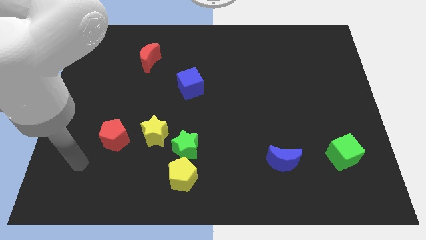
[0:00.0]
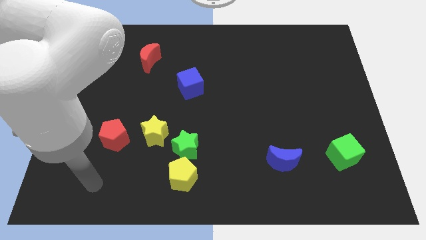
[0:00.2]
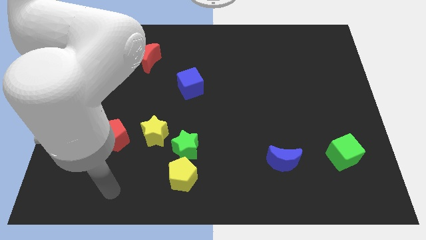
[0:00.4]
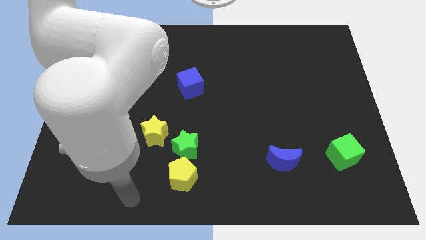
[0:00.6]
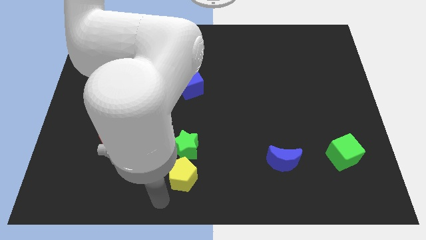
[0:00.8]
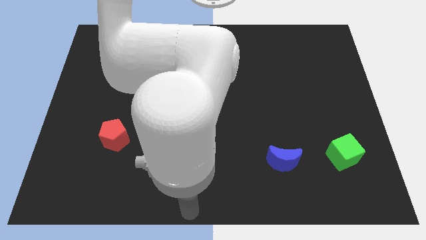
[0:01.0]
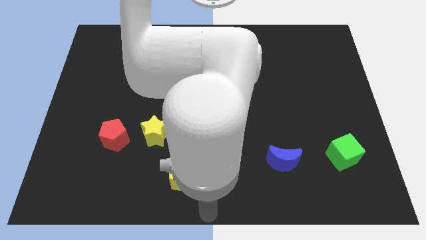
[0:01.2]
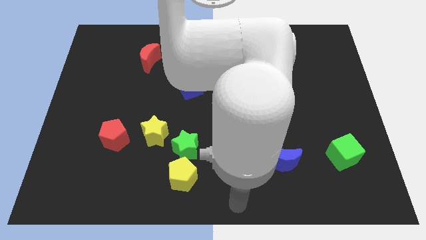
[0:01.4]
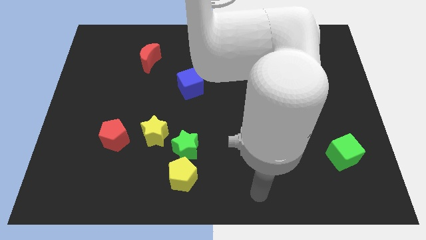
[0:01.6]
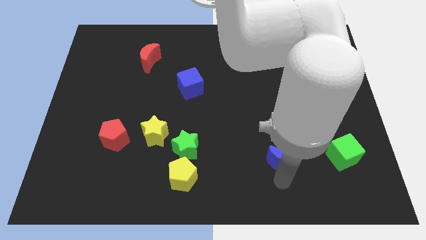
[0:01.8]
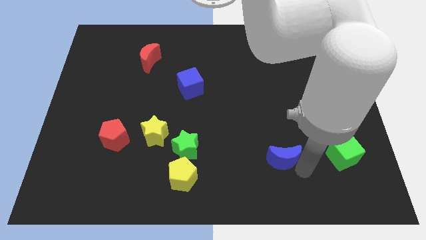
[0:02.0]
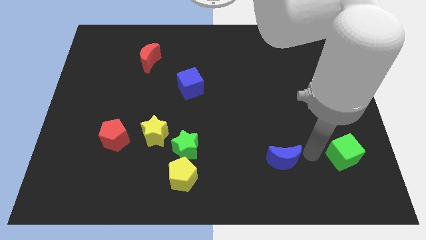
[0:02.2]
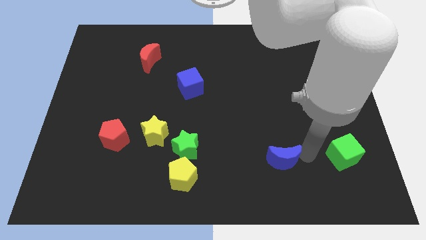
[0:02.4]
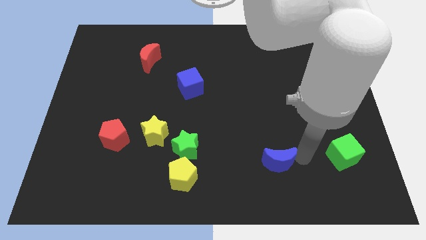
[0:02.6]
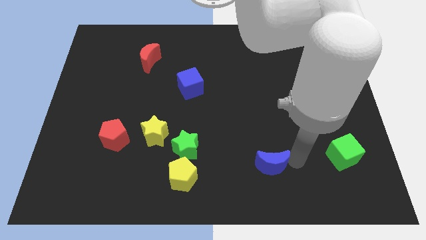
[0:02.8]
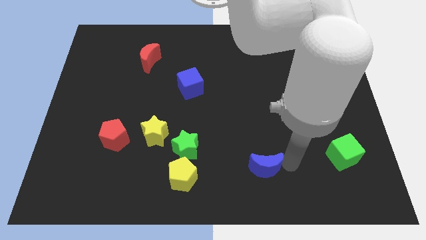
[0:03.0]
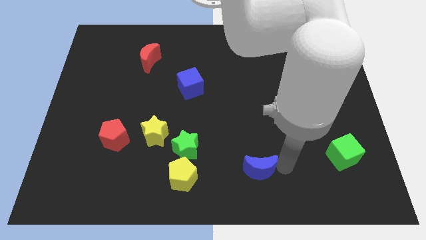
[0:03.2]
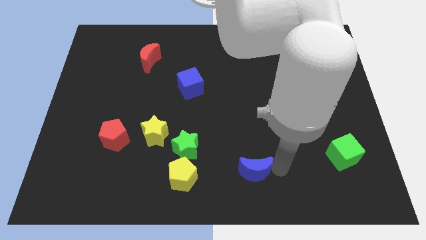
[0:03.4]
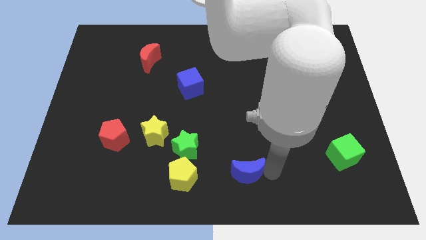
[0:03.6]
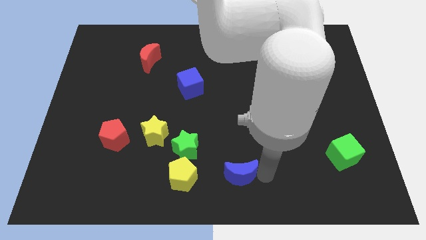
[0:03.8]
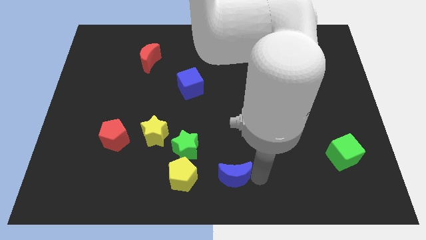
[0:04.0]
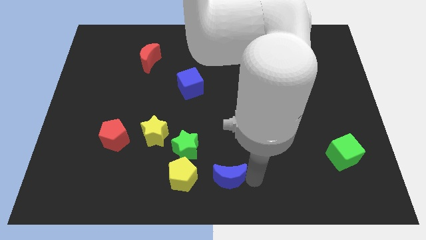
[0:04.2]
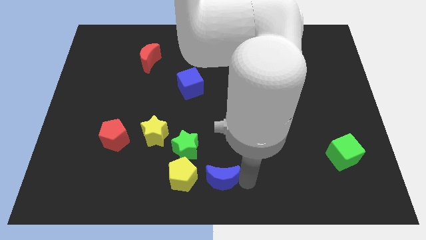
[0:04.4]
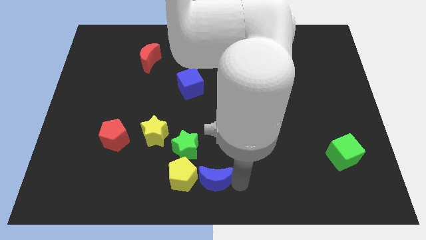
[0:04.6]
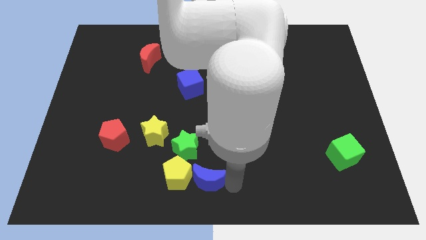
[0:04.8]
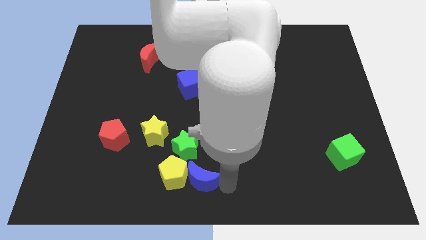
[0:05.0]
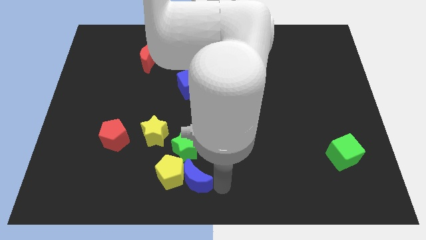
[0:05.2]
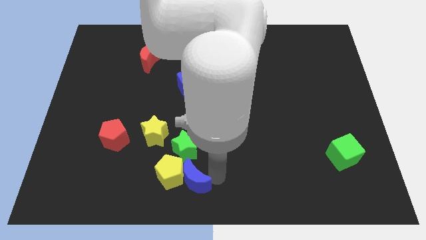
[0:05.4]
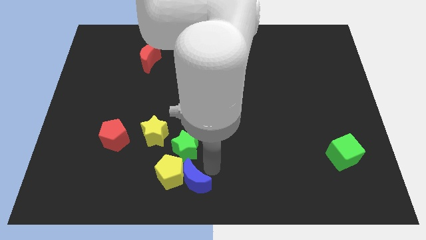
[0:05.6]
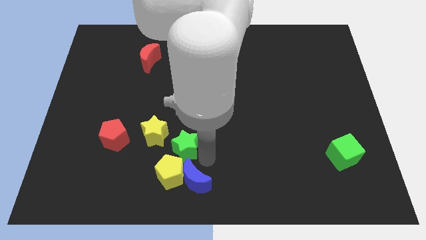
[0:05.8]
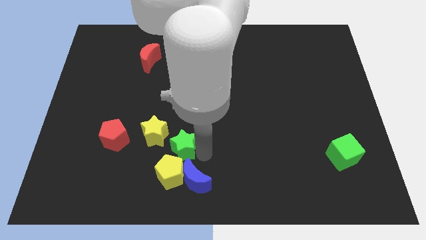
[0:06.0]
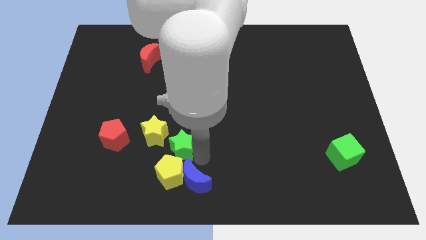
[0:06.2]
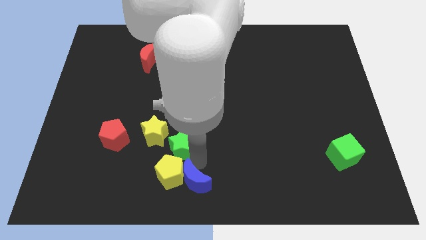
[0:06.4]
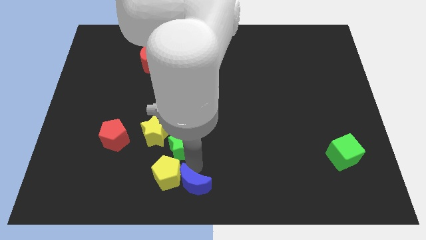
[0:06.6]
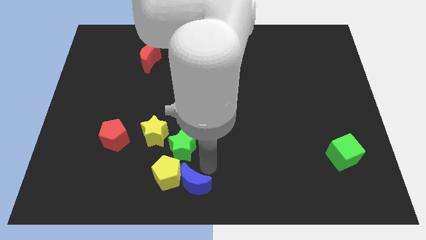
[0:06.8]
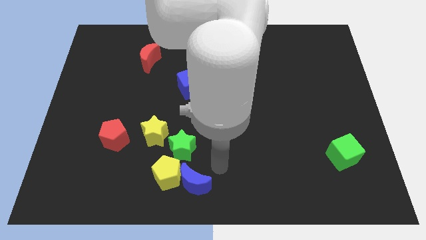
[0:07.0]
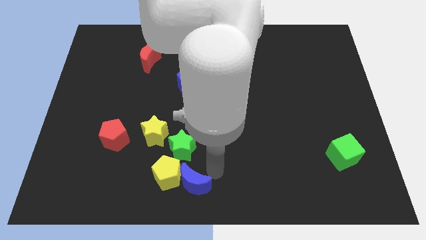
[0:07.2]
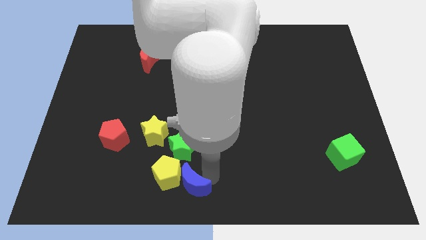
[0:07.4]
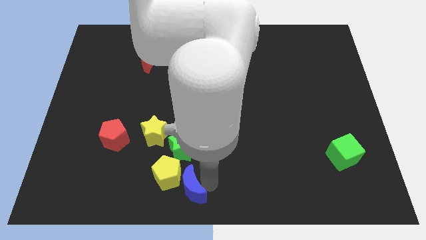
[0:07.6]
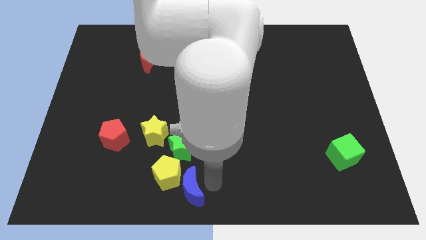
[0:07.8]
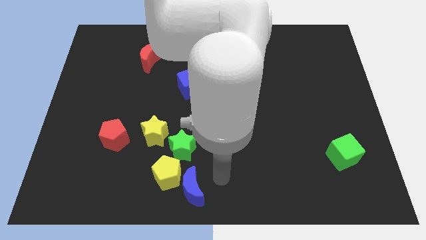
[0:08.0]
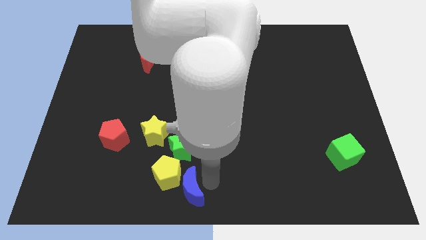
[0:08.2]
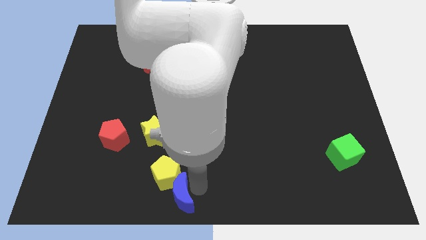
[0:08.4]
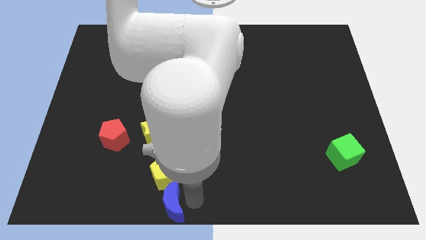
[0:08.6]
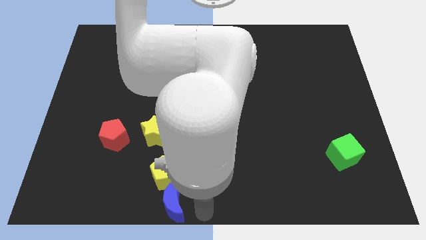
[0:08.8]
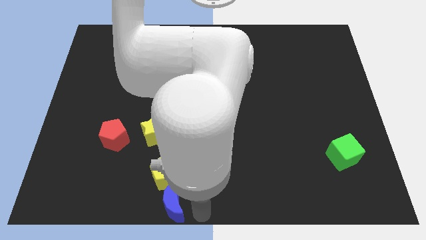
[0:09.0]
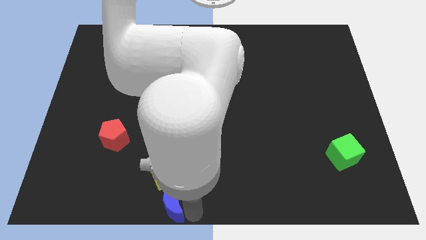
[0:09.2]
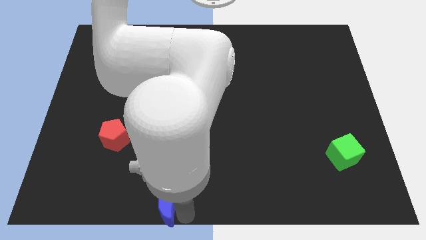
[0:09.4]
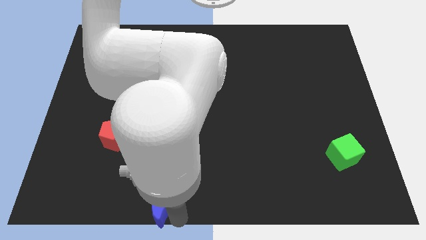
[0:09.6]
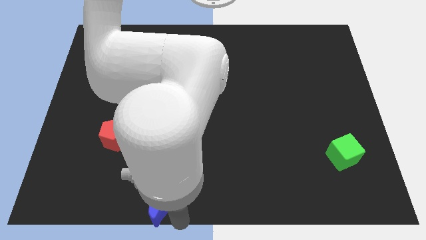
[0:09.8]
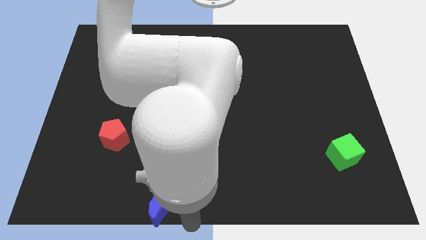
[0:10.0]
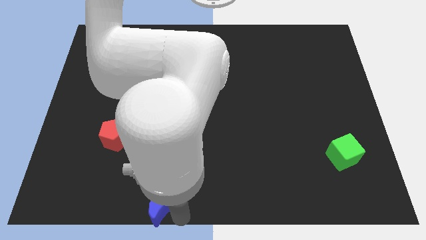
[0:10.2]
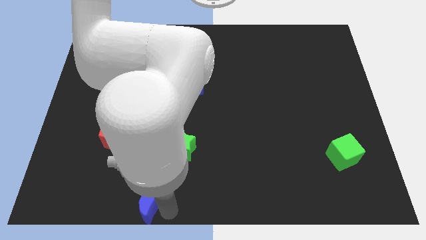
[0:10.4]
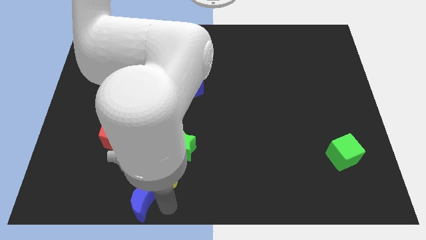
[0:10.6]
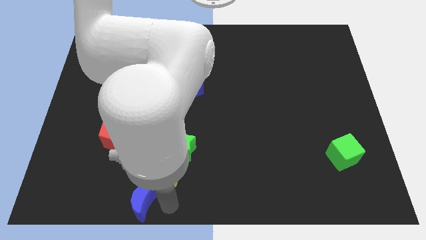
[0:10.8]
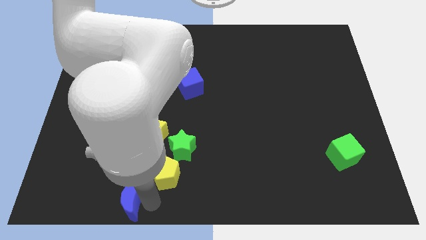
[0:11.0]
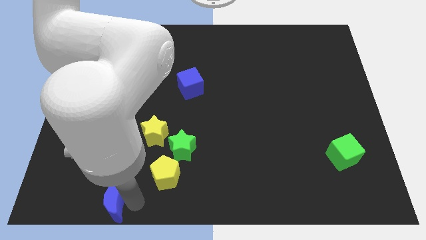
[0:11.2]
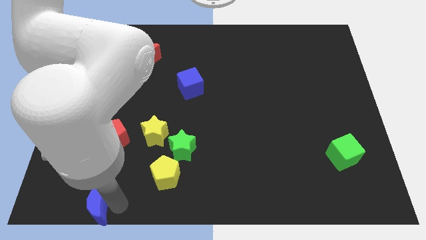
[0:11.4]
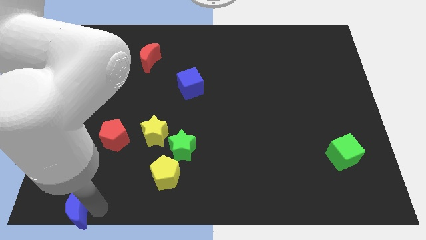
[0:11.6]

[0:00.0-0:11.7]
push the blue moon to the bottom left of the board
